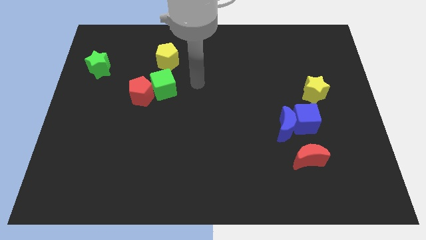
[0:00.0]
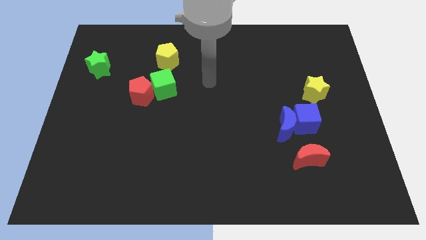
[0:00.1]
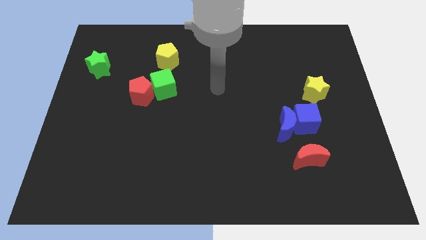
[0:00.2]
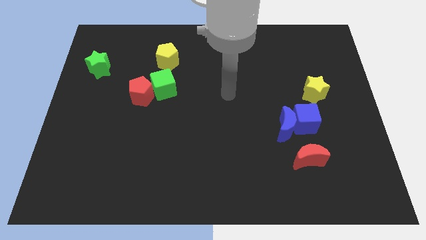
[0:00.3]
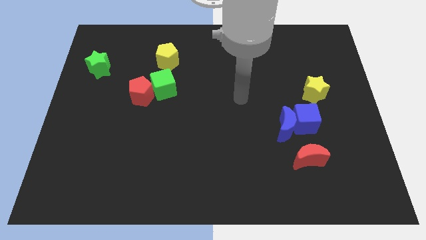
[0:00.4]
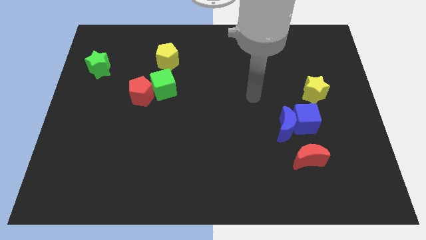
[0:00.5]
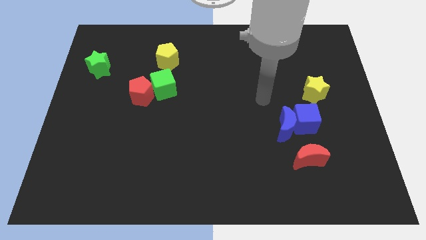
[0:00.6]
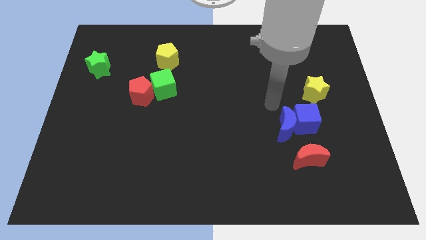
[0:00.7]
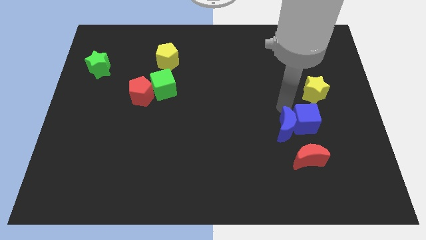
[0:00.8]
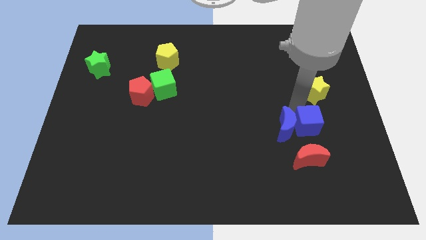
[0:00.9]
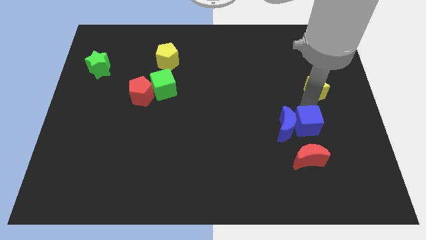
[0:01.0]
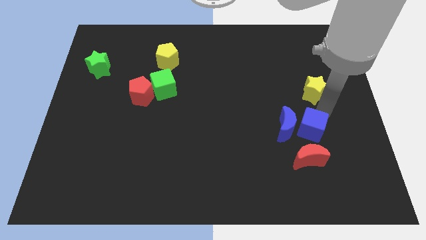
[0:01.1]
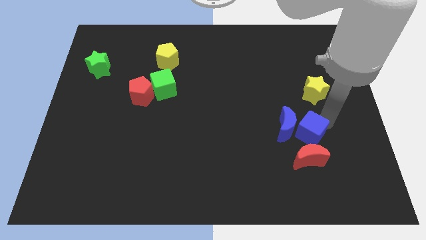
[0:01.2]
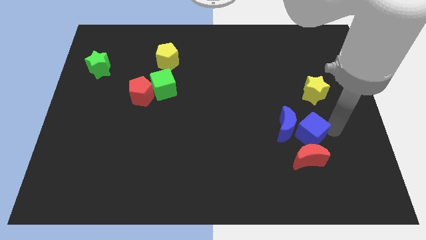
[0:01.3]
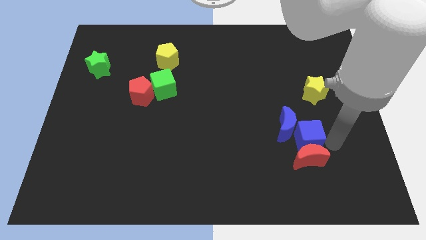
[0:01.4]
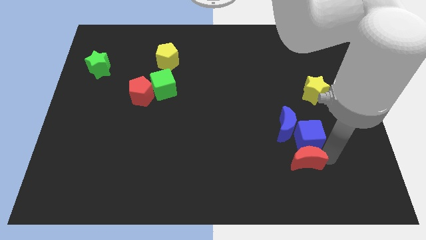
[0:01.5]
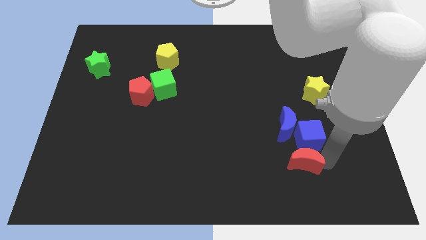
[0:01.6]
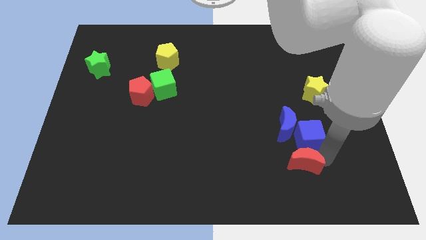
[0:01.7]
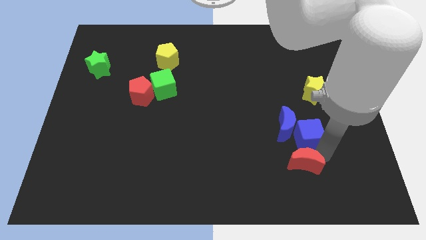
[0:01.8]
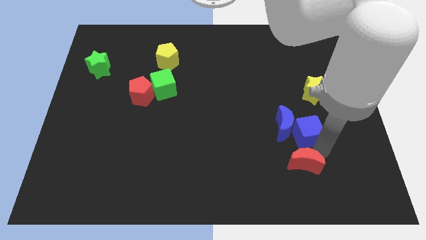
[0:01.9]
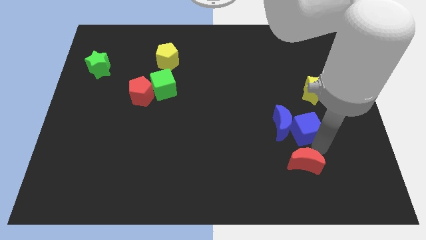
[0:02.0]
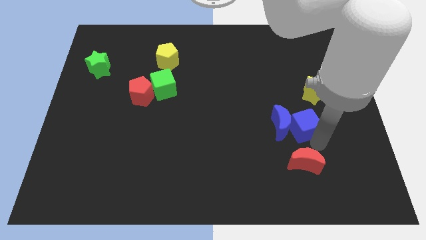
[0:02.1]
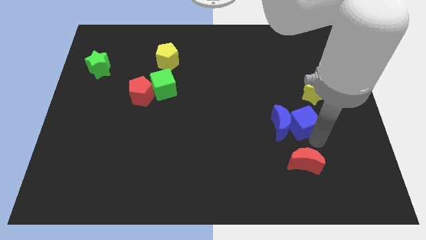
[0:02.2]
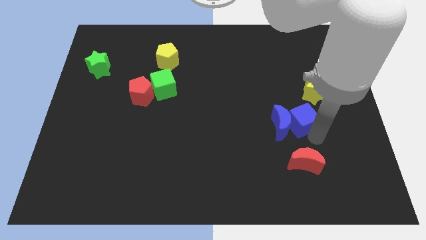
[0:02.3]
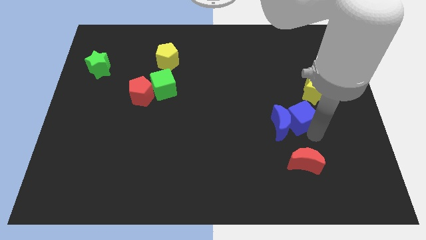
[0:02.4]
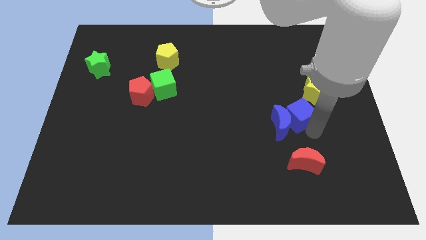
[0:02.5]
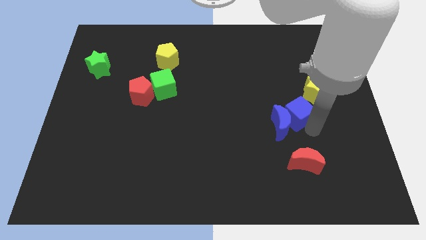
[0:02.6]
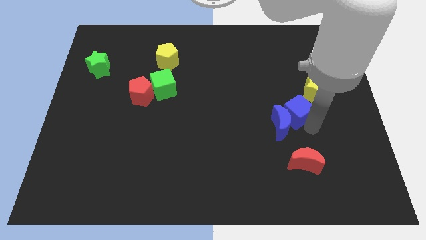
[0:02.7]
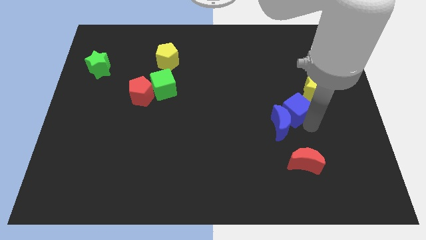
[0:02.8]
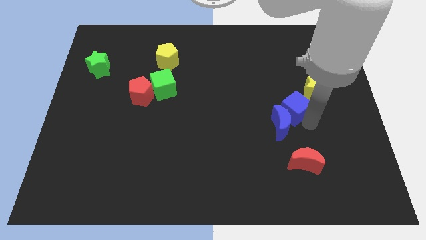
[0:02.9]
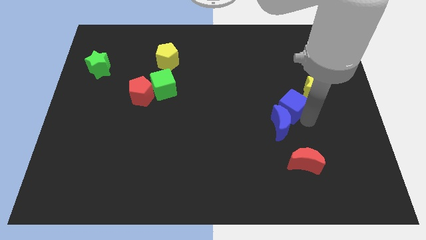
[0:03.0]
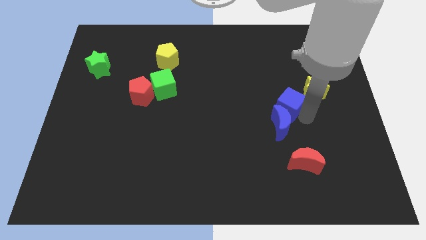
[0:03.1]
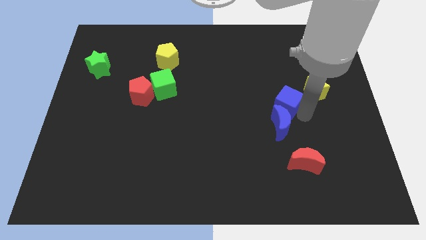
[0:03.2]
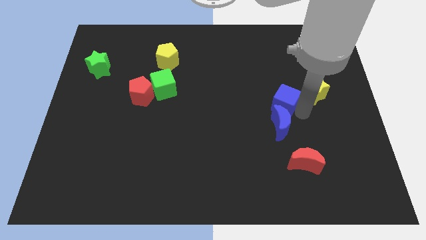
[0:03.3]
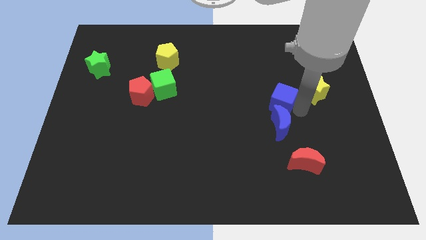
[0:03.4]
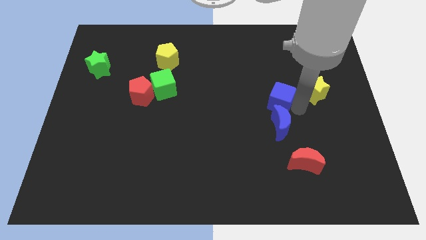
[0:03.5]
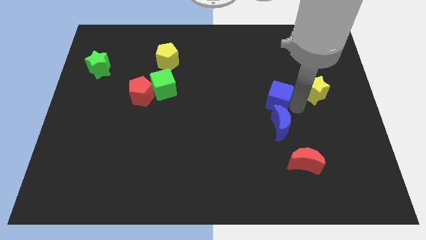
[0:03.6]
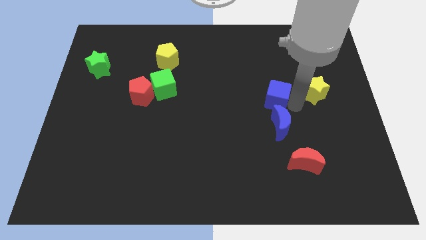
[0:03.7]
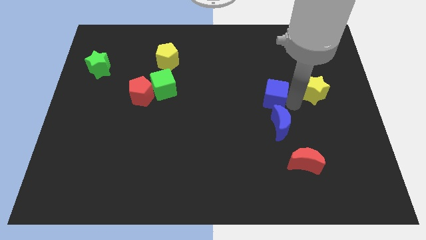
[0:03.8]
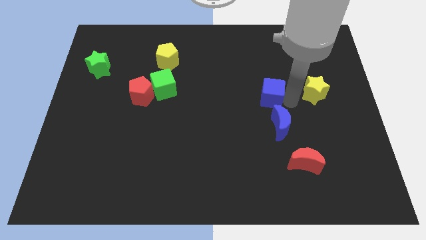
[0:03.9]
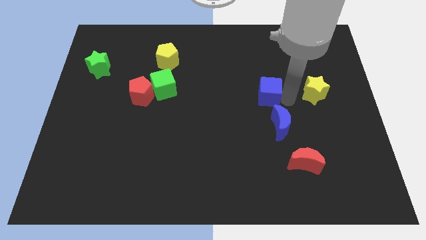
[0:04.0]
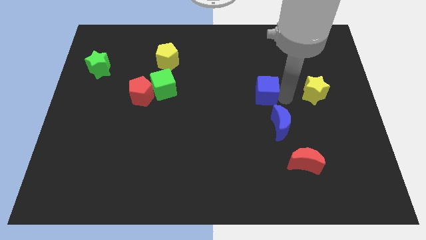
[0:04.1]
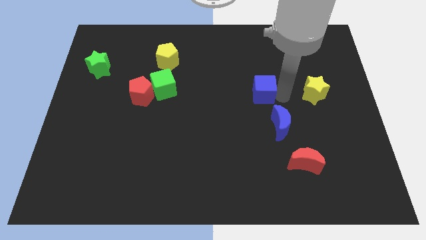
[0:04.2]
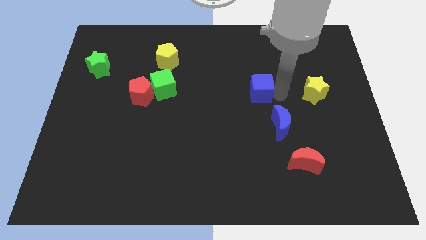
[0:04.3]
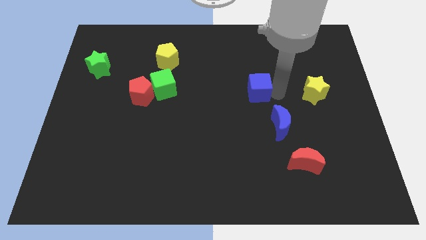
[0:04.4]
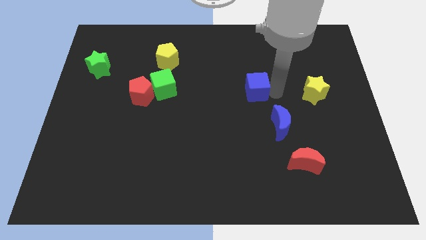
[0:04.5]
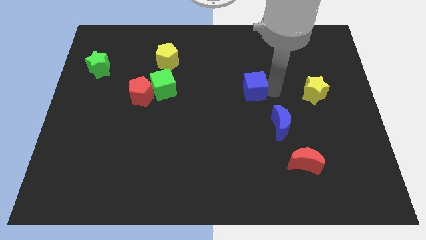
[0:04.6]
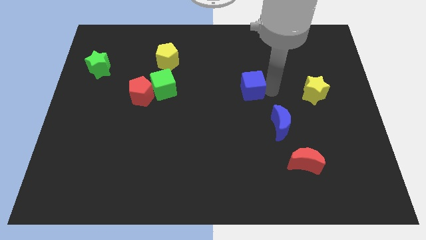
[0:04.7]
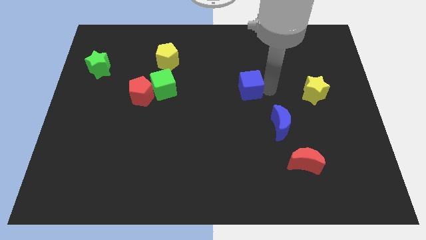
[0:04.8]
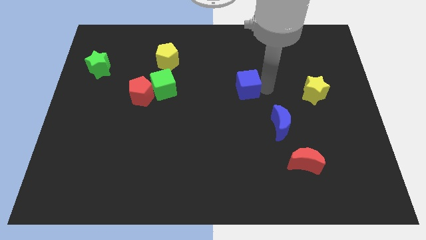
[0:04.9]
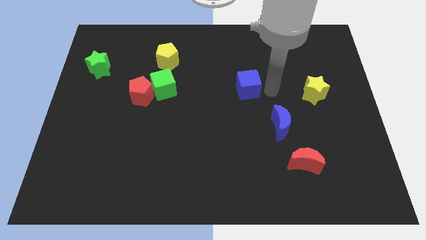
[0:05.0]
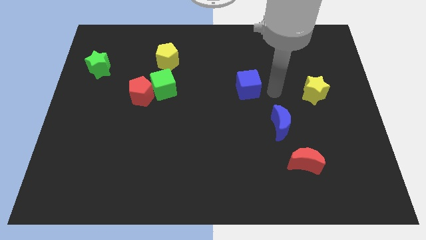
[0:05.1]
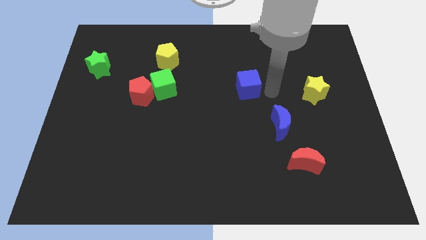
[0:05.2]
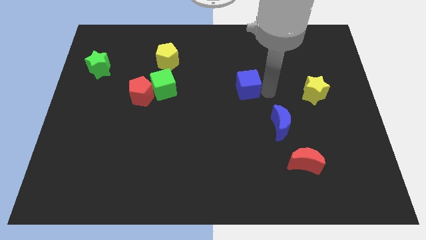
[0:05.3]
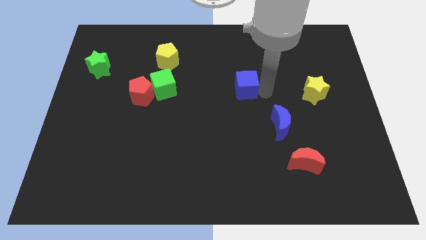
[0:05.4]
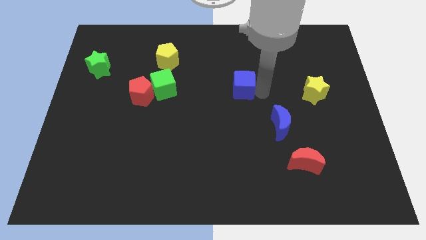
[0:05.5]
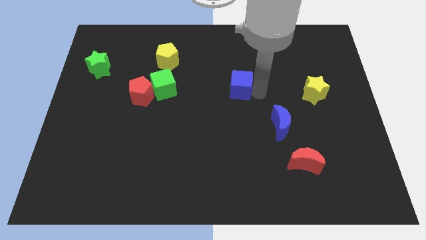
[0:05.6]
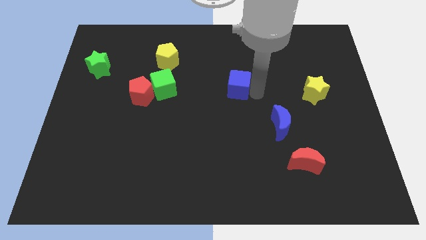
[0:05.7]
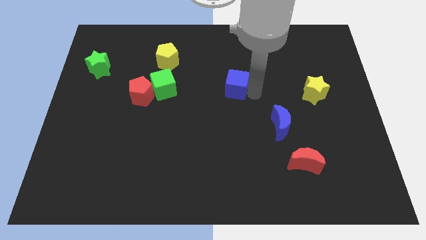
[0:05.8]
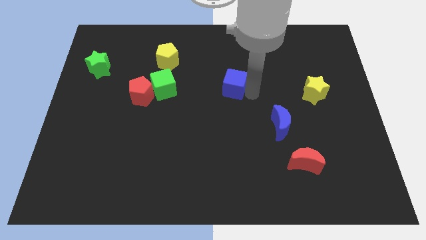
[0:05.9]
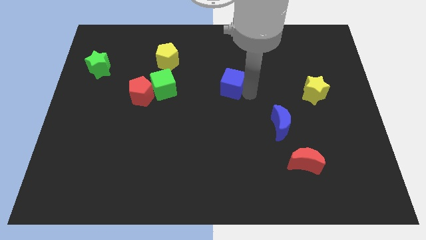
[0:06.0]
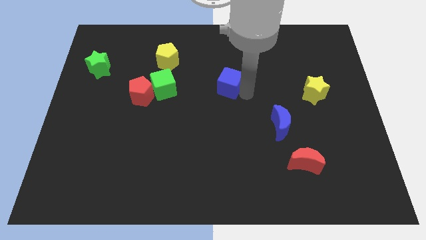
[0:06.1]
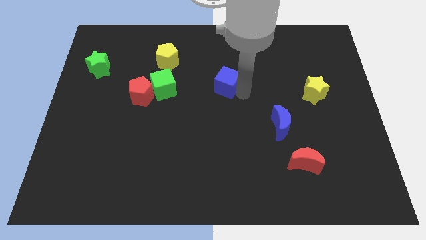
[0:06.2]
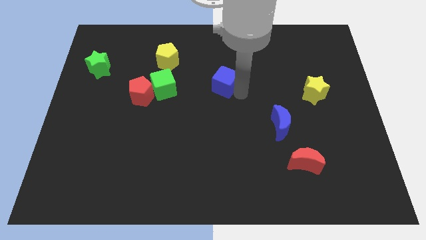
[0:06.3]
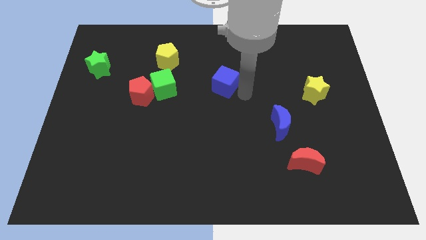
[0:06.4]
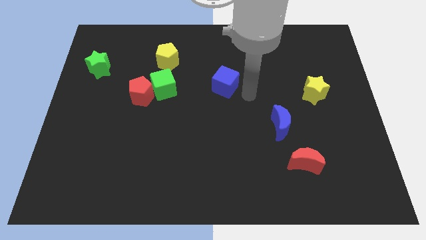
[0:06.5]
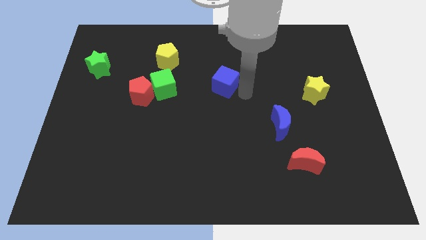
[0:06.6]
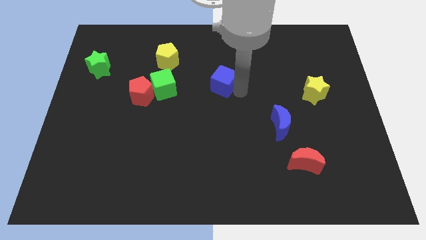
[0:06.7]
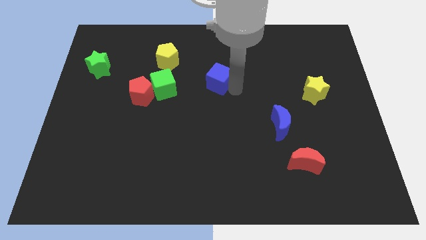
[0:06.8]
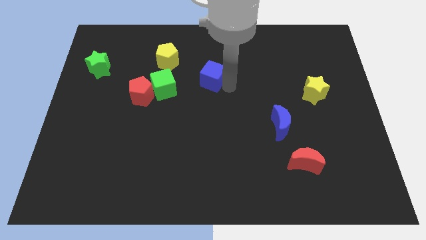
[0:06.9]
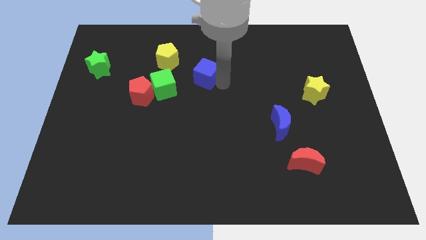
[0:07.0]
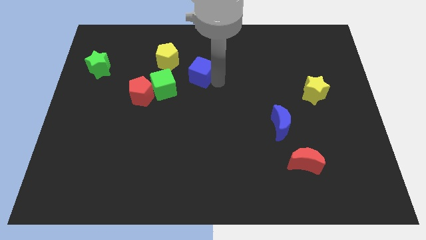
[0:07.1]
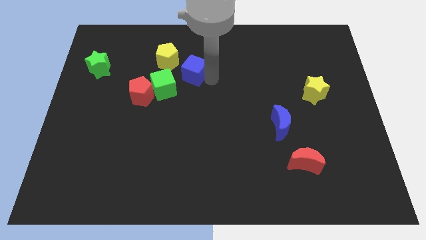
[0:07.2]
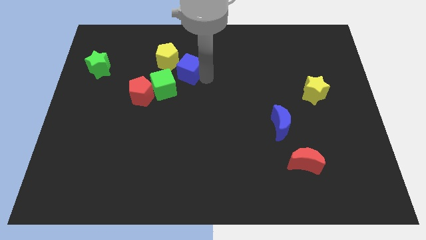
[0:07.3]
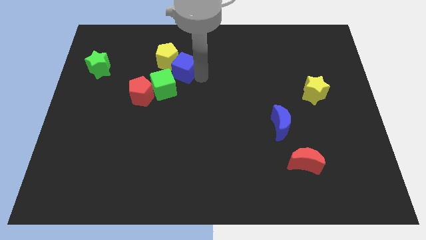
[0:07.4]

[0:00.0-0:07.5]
move the blue cube next to the yellow pentagon

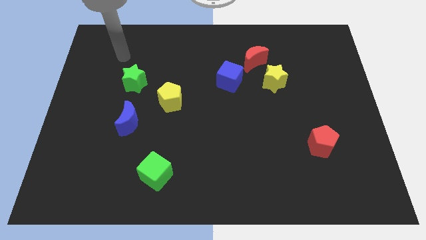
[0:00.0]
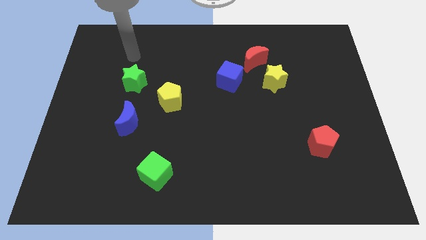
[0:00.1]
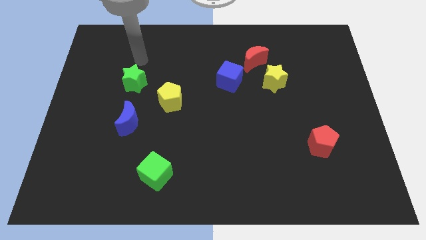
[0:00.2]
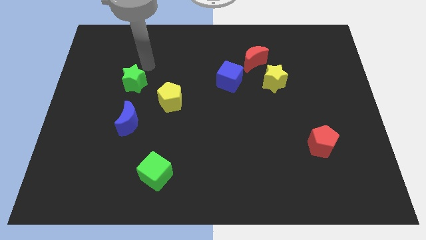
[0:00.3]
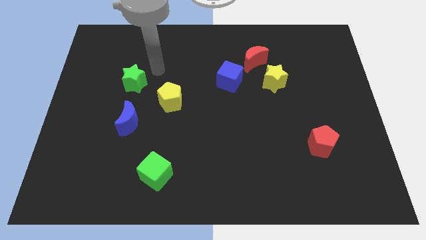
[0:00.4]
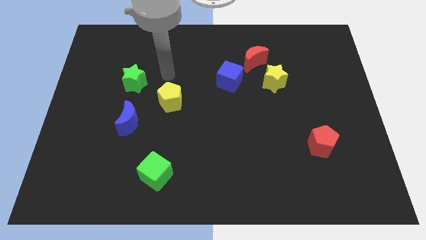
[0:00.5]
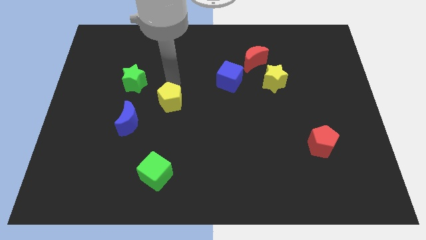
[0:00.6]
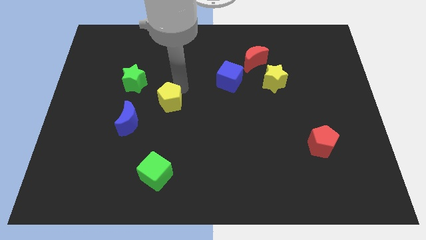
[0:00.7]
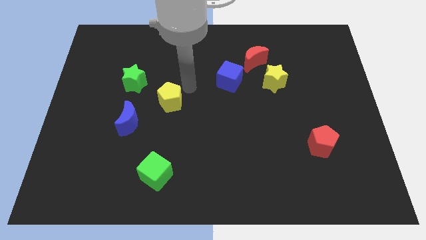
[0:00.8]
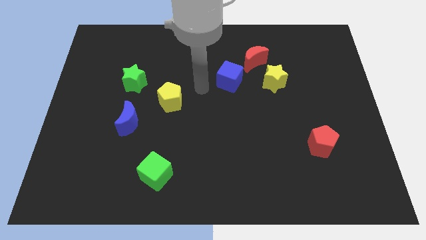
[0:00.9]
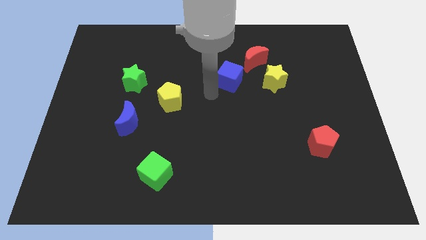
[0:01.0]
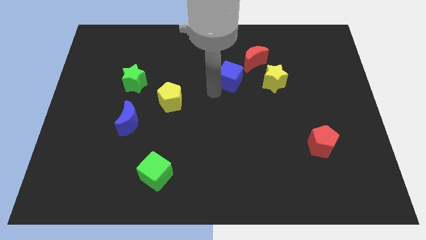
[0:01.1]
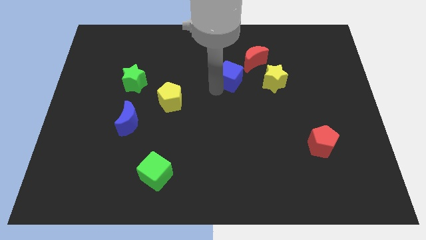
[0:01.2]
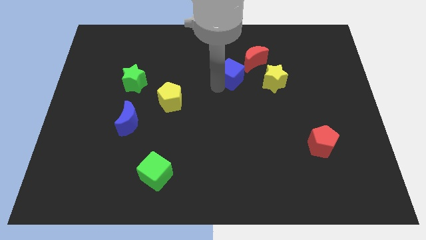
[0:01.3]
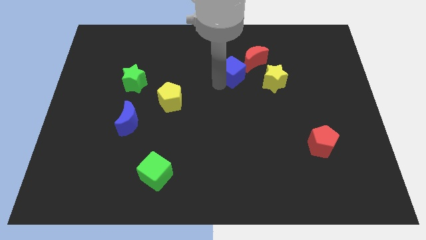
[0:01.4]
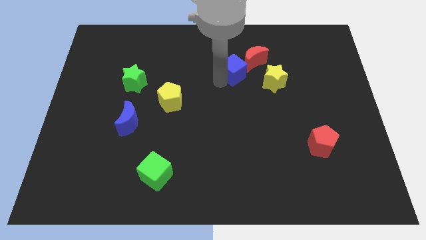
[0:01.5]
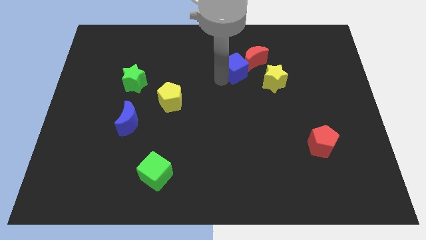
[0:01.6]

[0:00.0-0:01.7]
put the blue cube next to the red moon
